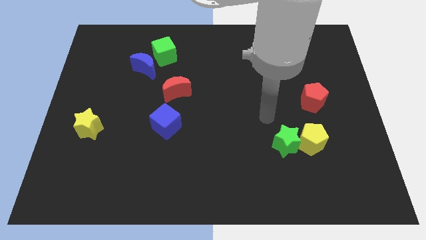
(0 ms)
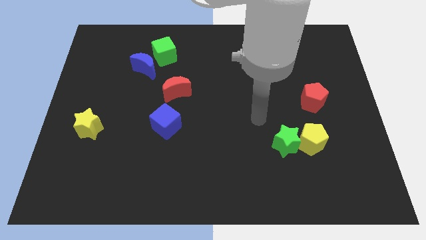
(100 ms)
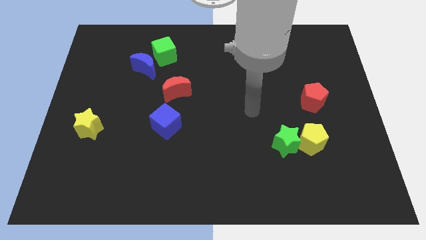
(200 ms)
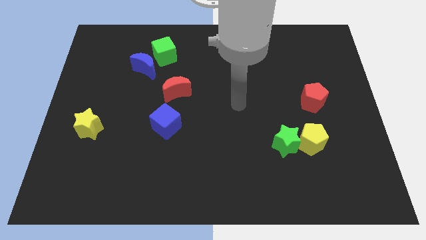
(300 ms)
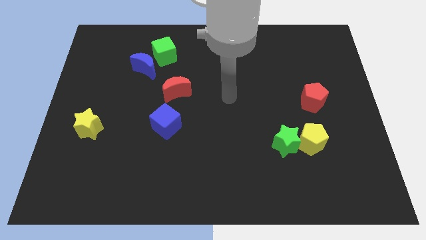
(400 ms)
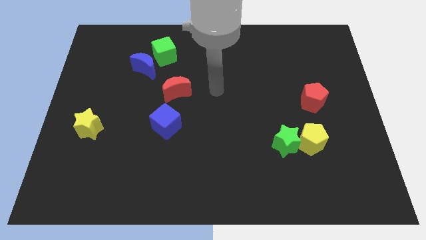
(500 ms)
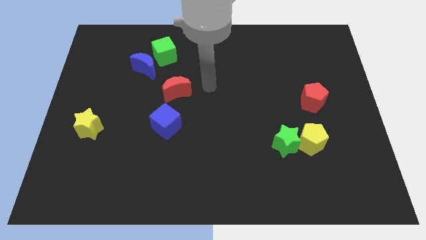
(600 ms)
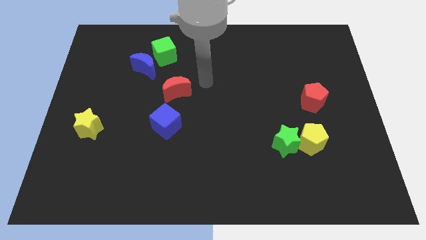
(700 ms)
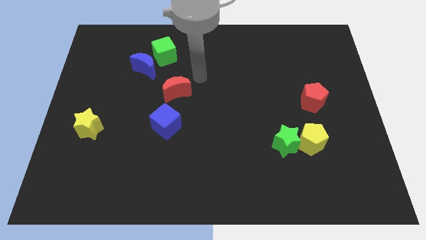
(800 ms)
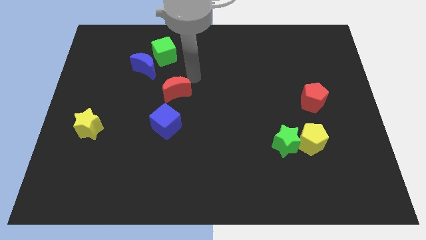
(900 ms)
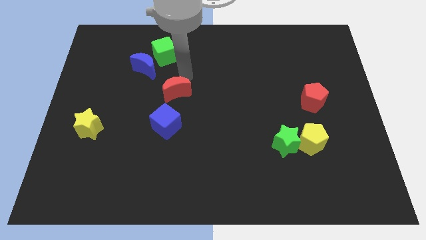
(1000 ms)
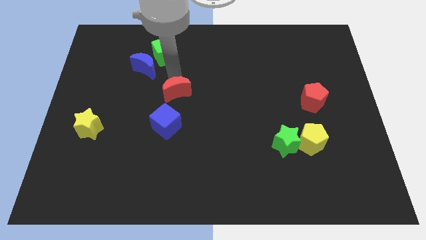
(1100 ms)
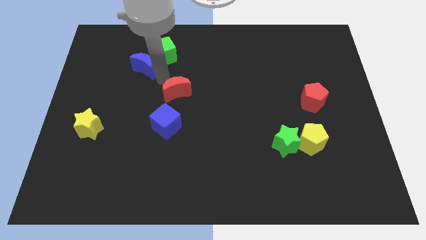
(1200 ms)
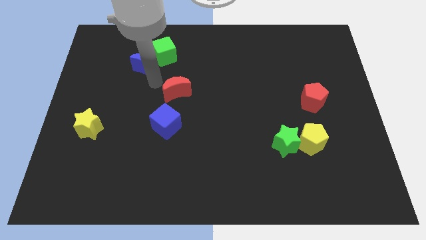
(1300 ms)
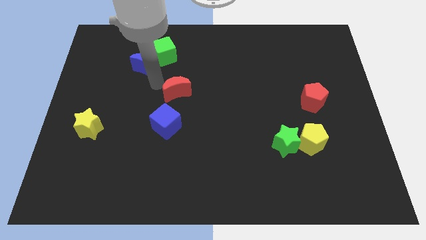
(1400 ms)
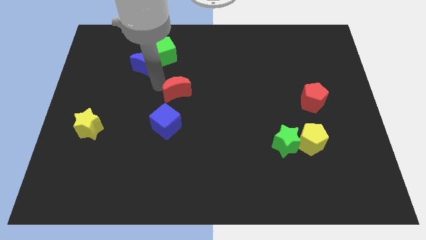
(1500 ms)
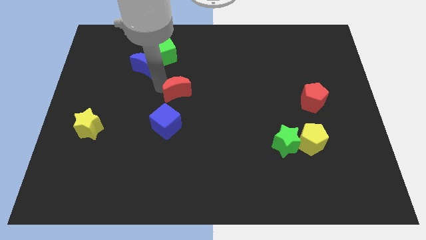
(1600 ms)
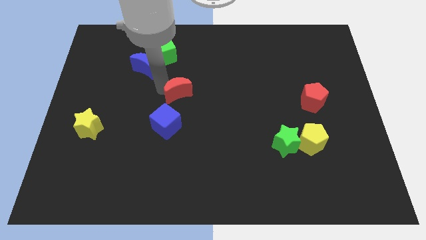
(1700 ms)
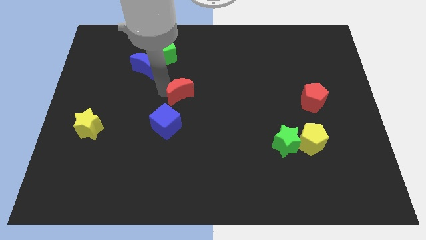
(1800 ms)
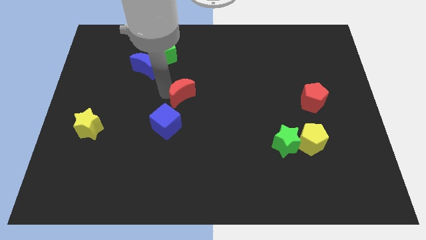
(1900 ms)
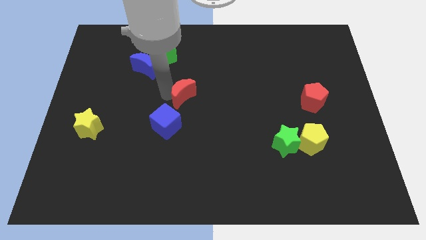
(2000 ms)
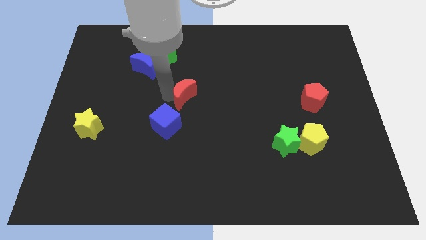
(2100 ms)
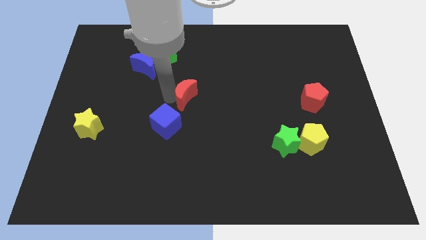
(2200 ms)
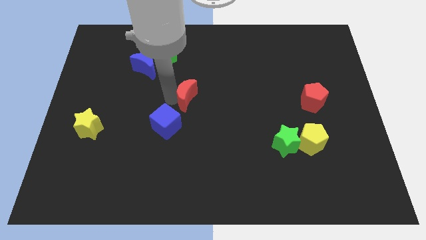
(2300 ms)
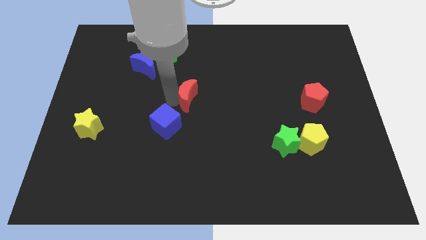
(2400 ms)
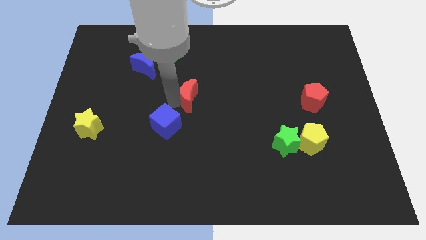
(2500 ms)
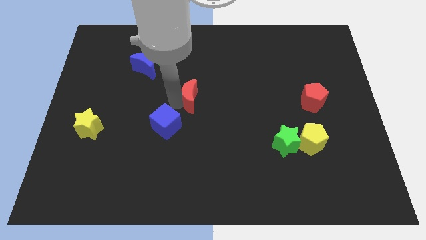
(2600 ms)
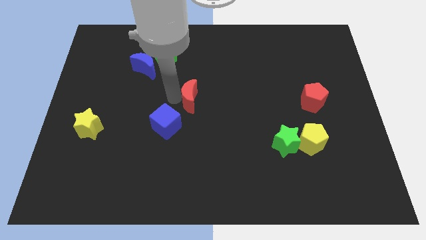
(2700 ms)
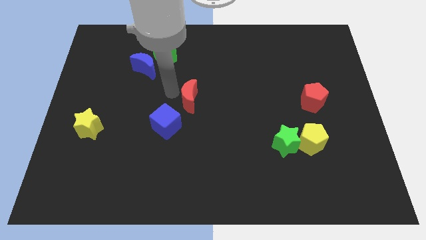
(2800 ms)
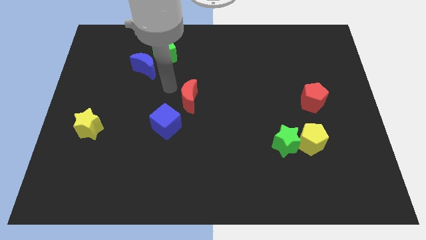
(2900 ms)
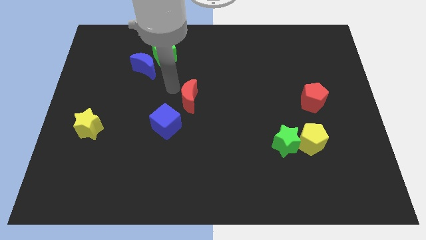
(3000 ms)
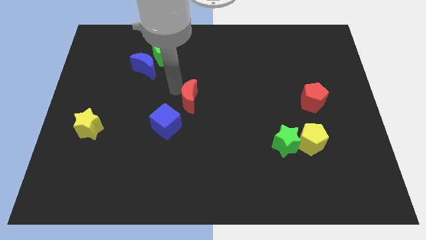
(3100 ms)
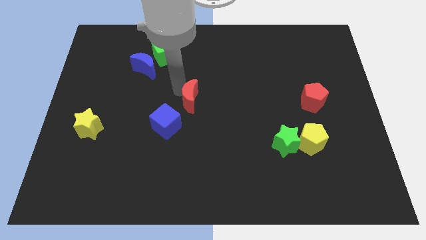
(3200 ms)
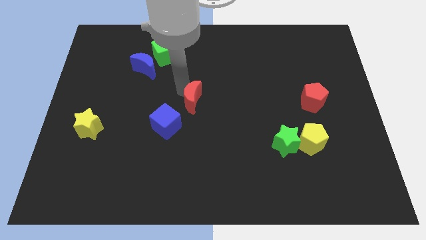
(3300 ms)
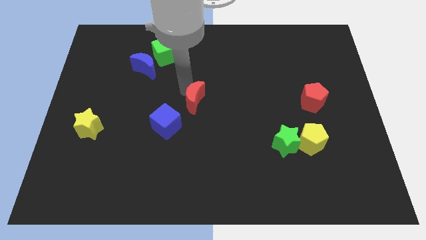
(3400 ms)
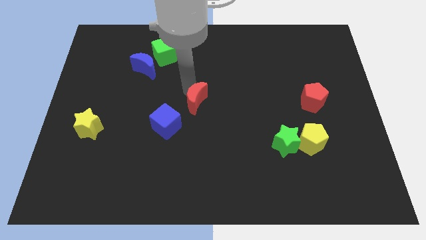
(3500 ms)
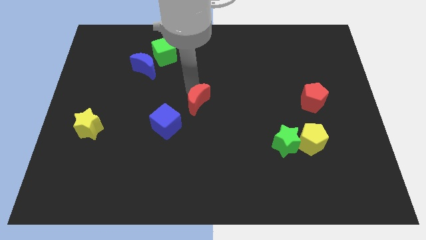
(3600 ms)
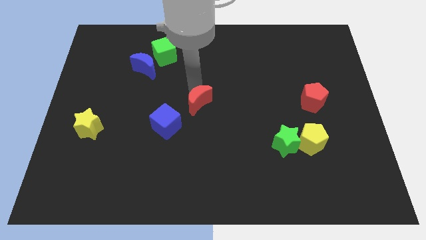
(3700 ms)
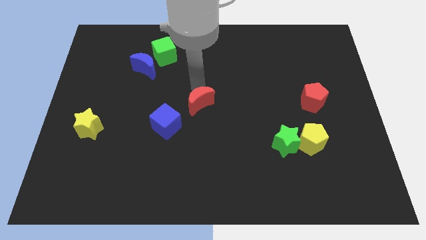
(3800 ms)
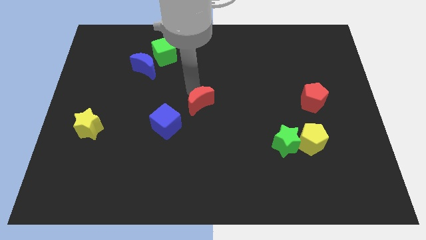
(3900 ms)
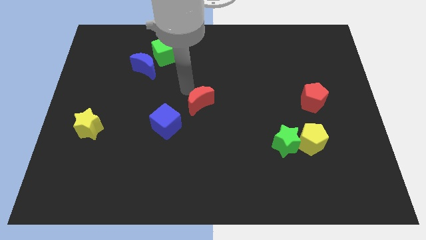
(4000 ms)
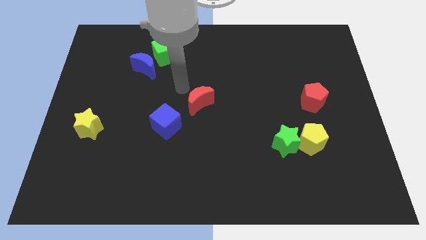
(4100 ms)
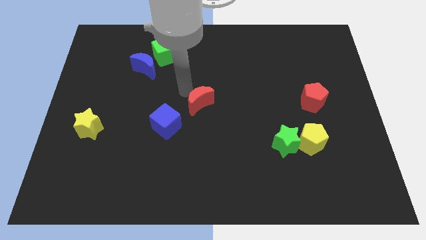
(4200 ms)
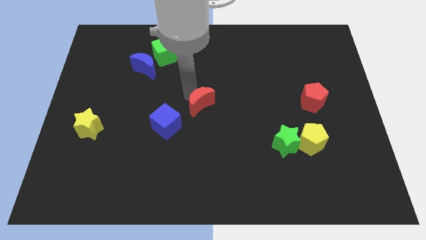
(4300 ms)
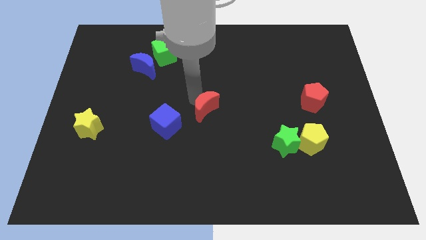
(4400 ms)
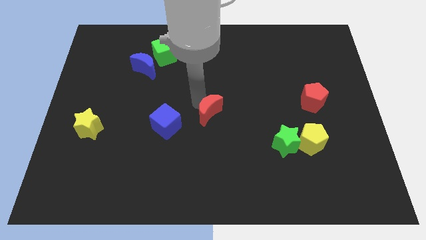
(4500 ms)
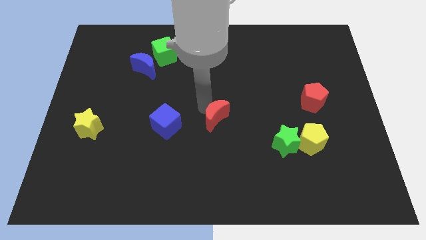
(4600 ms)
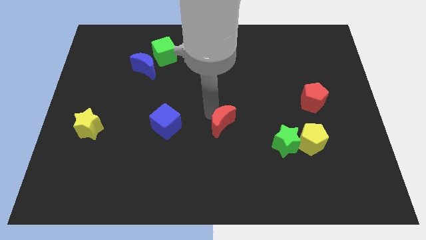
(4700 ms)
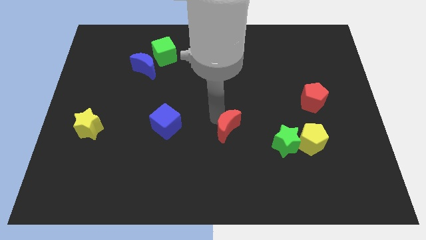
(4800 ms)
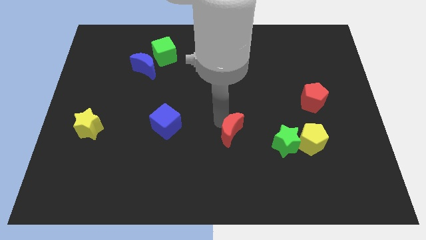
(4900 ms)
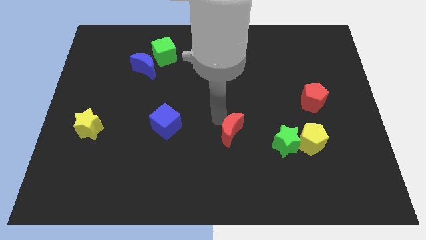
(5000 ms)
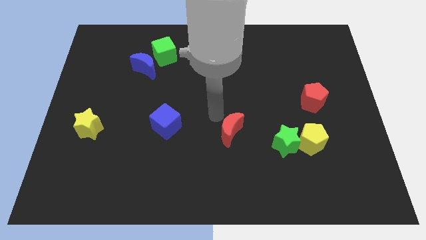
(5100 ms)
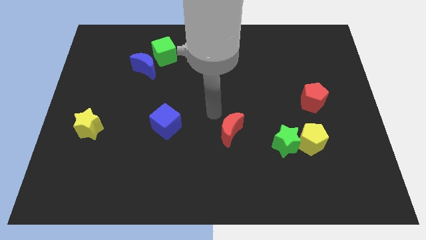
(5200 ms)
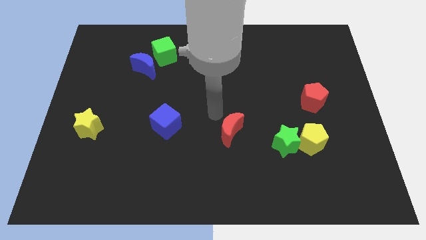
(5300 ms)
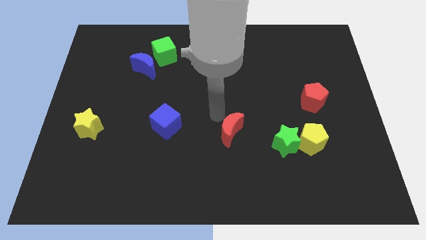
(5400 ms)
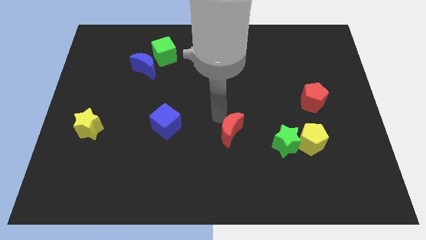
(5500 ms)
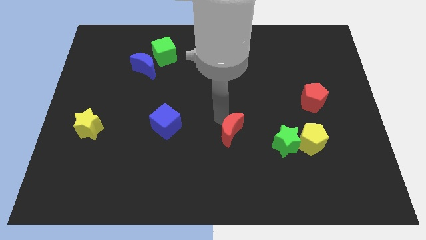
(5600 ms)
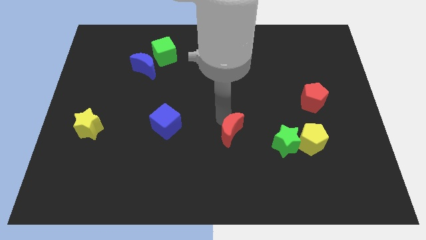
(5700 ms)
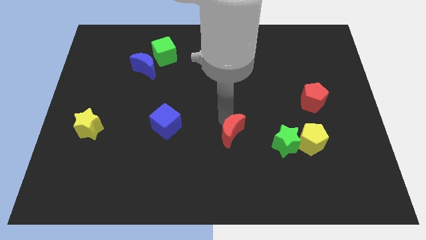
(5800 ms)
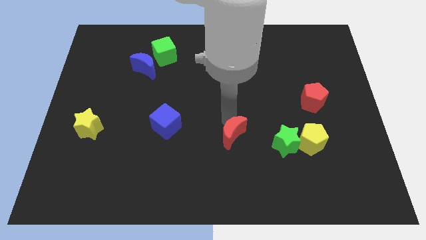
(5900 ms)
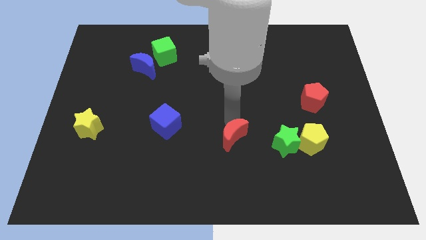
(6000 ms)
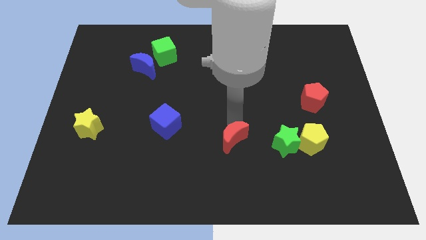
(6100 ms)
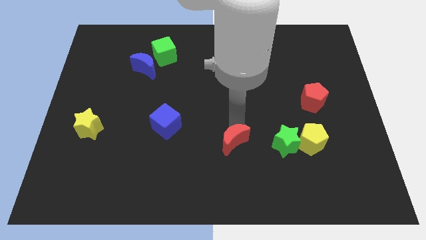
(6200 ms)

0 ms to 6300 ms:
push the red moon down and to the right

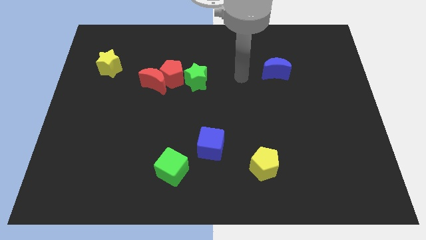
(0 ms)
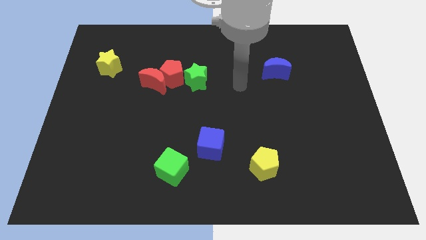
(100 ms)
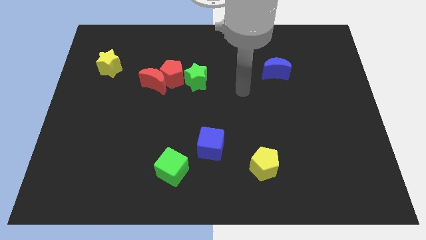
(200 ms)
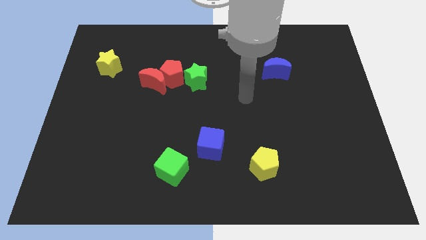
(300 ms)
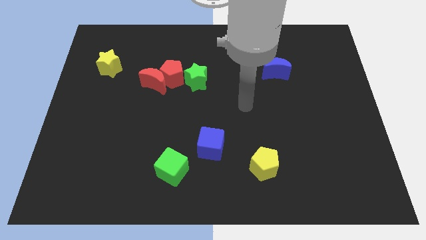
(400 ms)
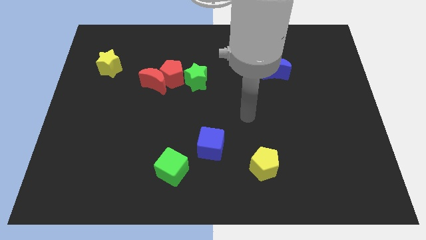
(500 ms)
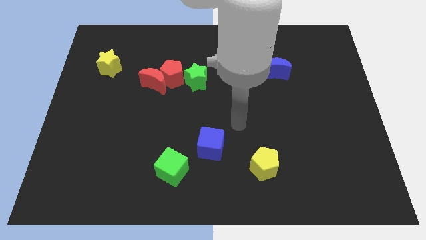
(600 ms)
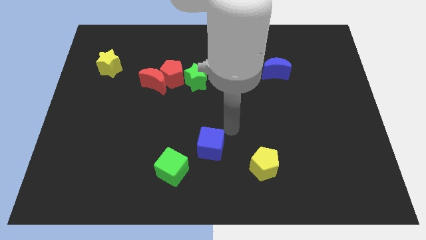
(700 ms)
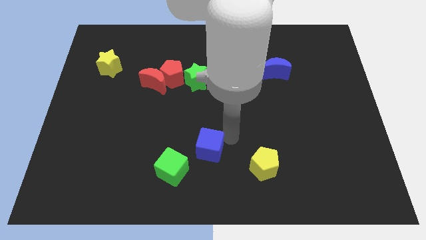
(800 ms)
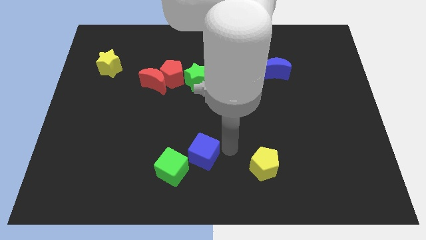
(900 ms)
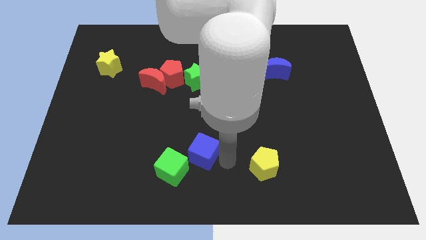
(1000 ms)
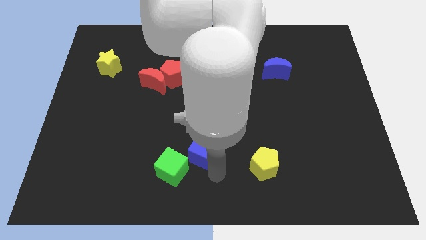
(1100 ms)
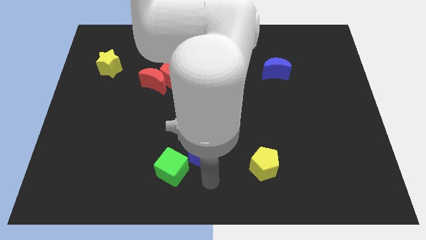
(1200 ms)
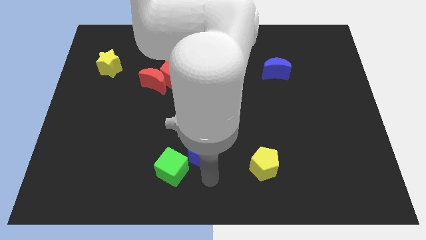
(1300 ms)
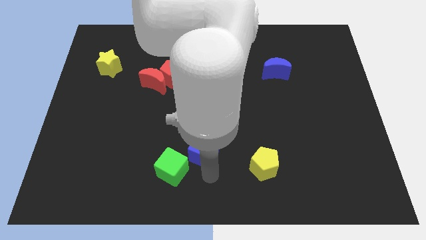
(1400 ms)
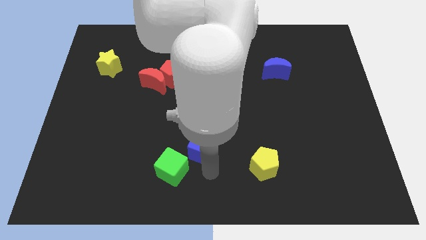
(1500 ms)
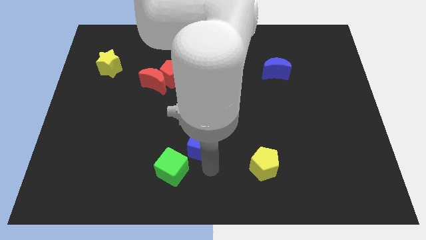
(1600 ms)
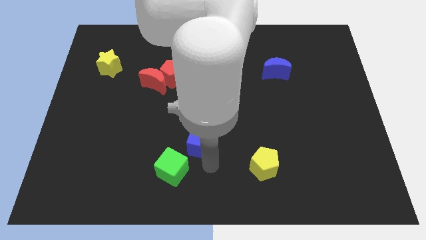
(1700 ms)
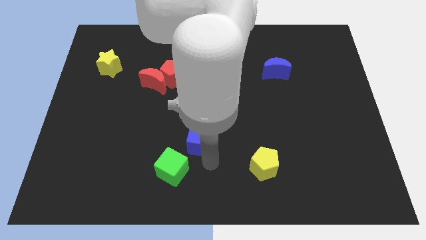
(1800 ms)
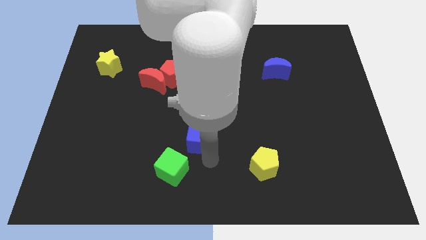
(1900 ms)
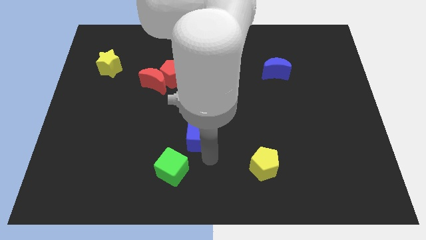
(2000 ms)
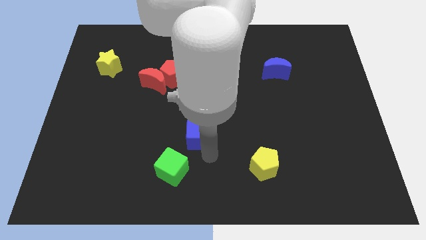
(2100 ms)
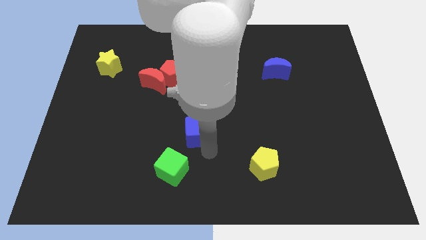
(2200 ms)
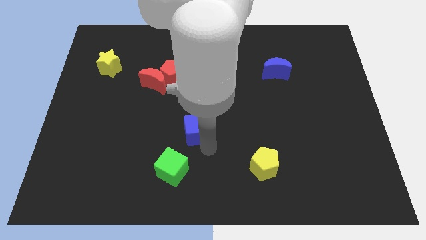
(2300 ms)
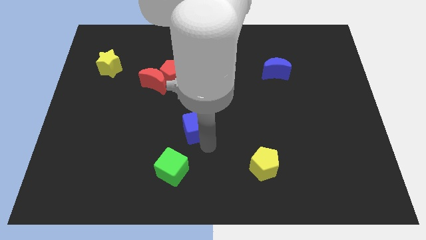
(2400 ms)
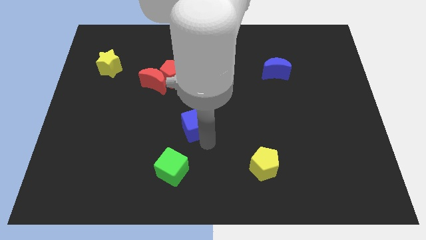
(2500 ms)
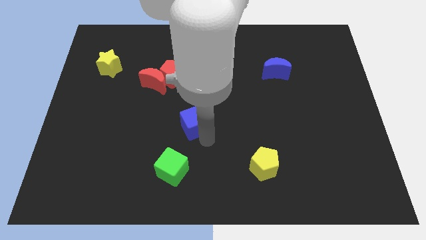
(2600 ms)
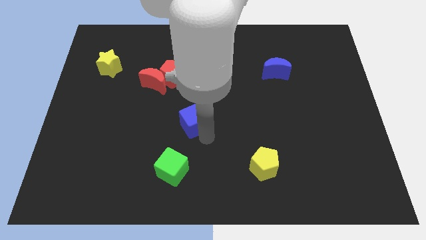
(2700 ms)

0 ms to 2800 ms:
slide the blue cube diagonally upwards and to the left a little bit
